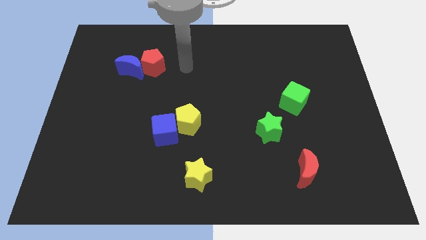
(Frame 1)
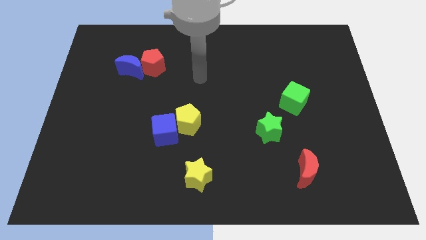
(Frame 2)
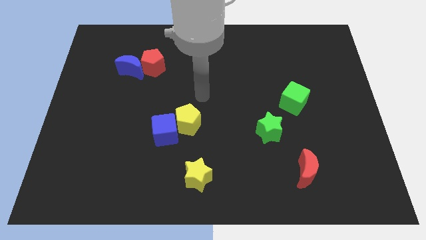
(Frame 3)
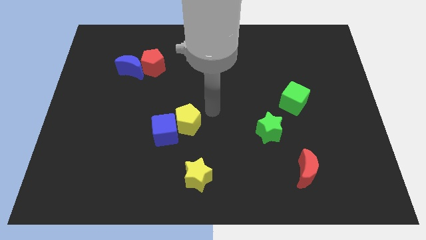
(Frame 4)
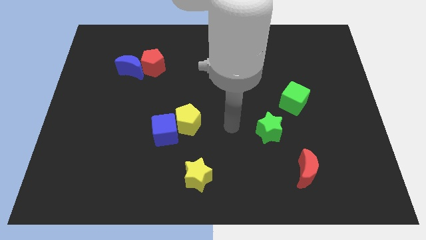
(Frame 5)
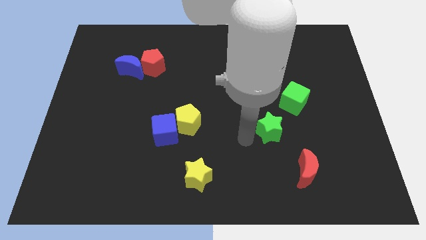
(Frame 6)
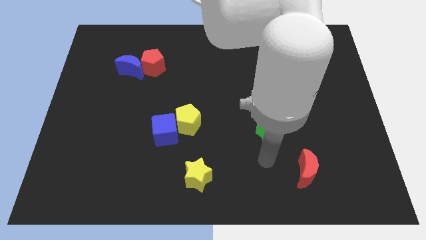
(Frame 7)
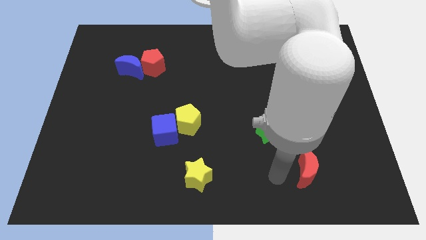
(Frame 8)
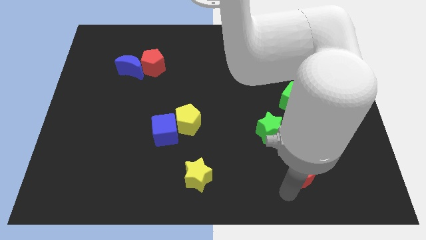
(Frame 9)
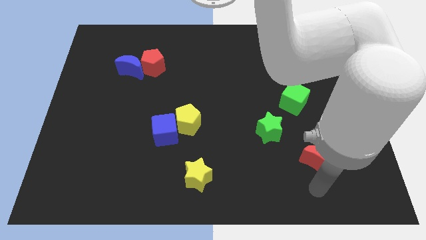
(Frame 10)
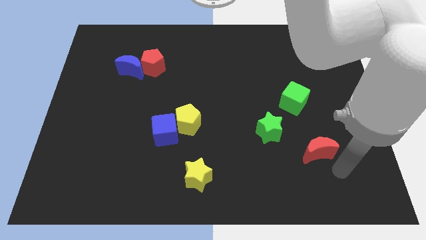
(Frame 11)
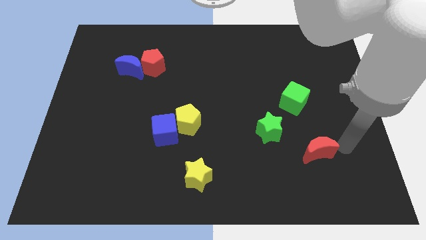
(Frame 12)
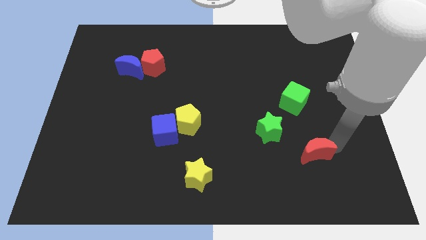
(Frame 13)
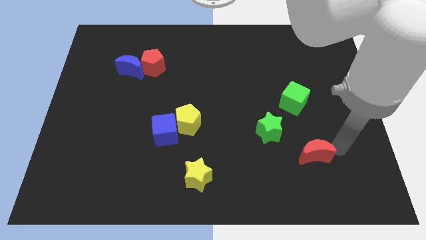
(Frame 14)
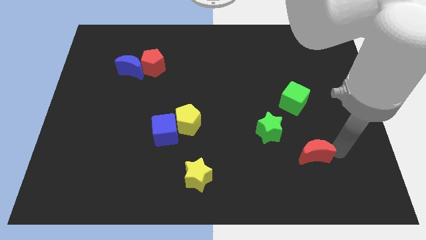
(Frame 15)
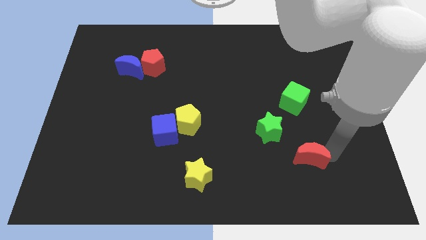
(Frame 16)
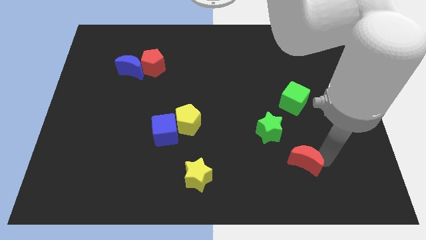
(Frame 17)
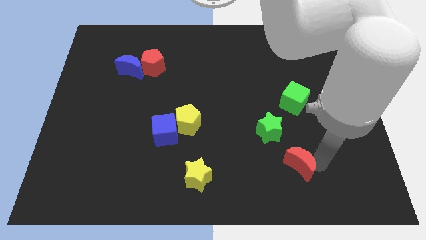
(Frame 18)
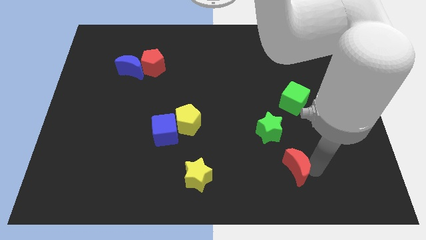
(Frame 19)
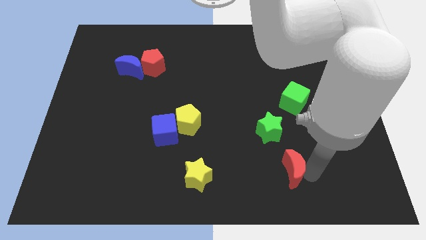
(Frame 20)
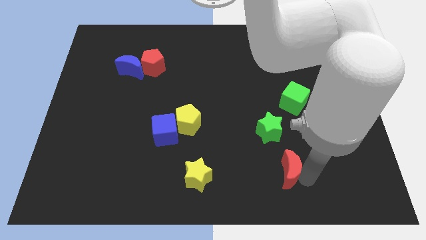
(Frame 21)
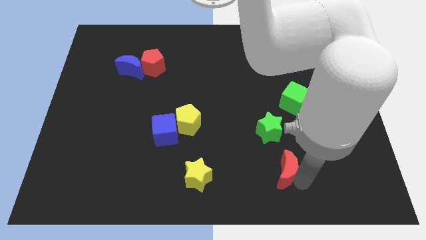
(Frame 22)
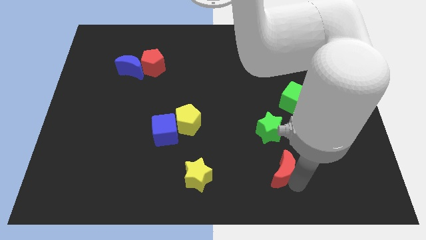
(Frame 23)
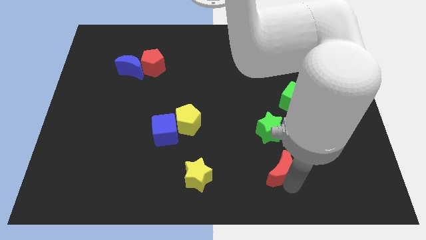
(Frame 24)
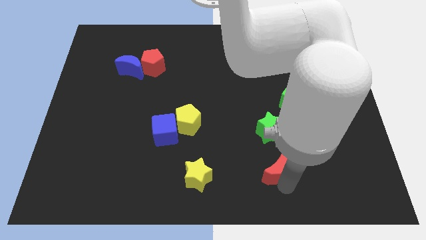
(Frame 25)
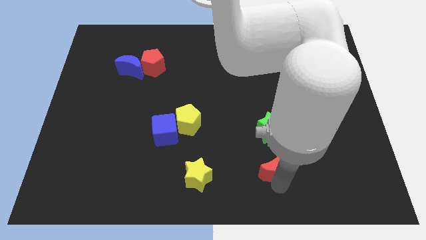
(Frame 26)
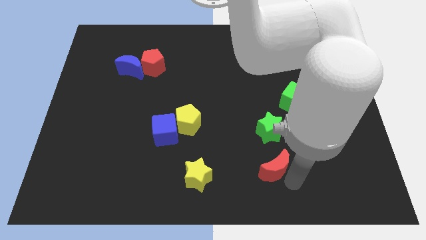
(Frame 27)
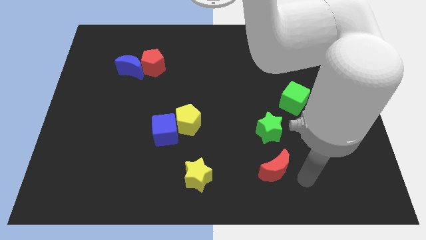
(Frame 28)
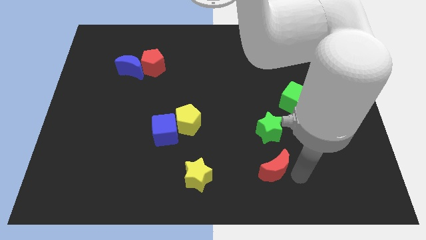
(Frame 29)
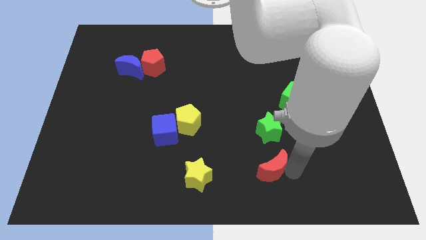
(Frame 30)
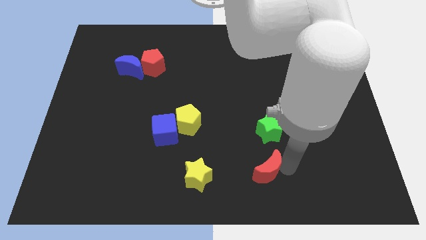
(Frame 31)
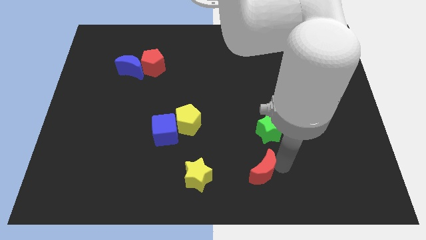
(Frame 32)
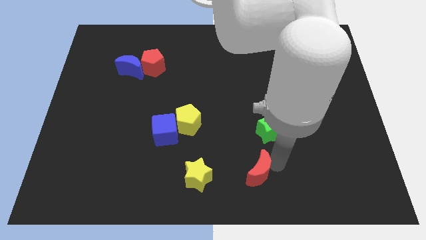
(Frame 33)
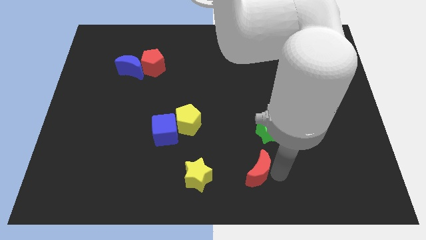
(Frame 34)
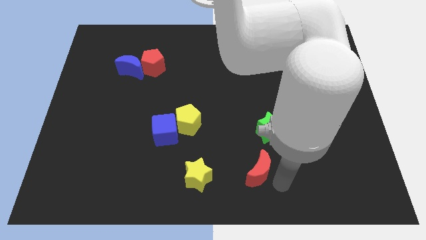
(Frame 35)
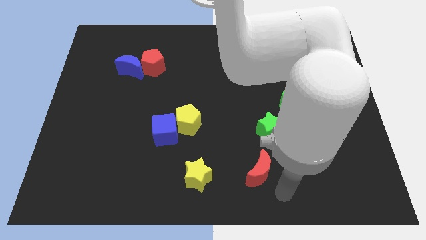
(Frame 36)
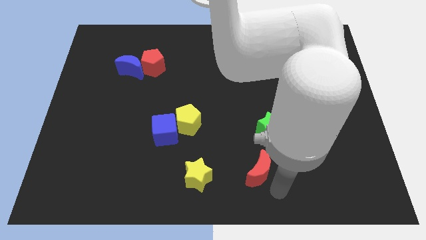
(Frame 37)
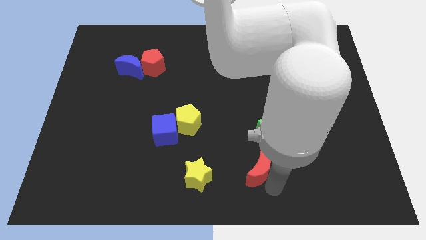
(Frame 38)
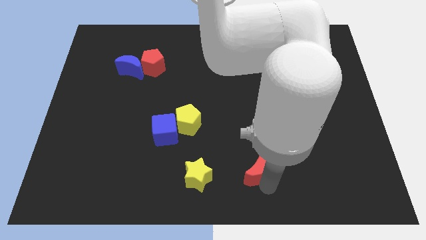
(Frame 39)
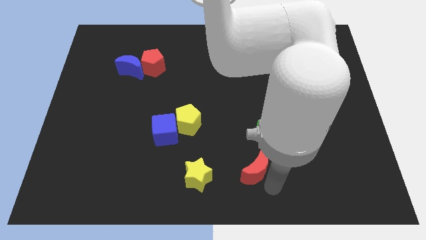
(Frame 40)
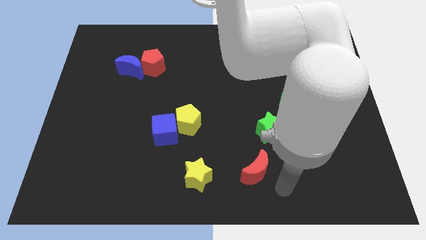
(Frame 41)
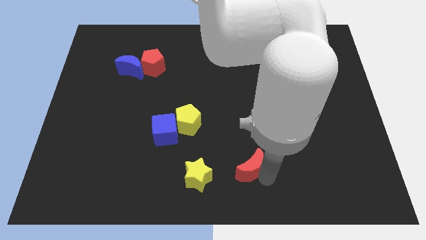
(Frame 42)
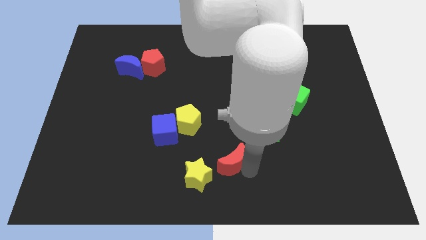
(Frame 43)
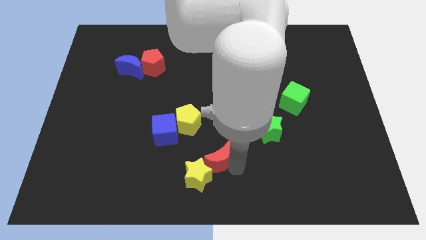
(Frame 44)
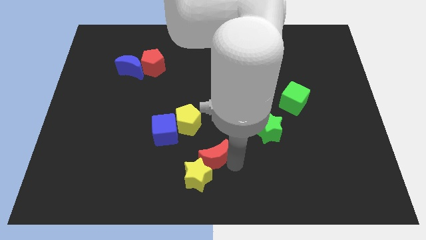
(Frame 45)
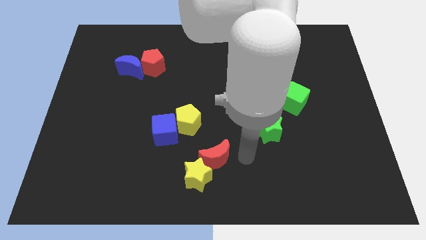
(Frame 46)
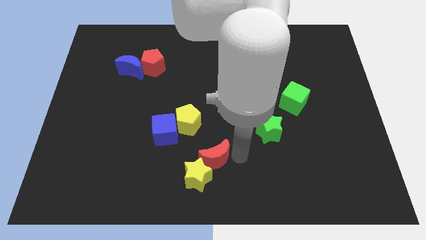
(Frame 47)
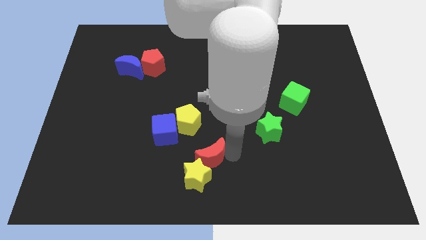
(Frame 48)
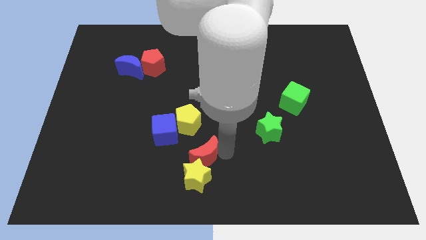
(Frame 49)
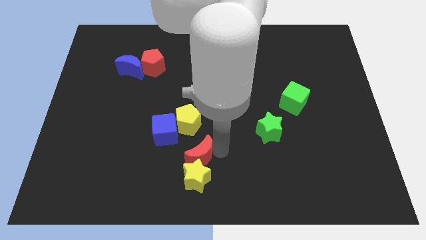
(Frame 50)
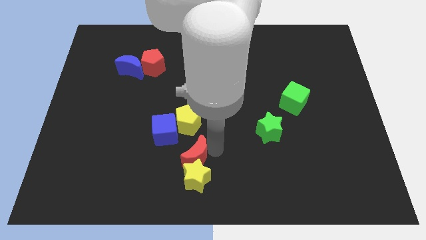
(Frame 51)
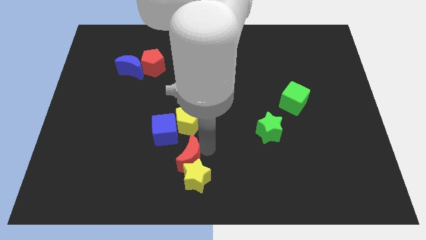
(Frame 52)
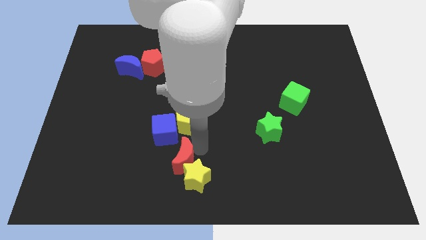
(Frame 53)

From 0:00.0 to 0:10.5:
push the red moon below the blue cube
